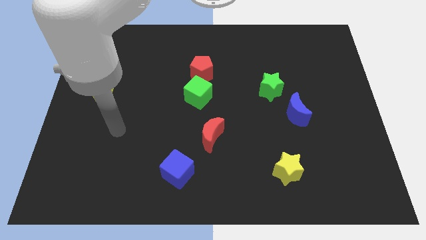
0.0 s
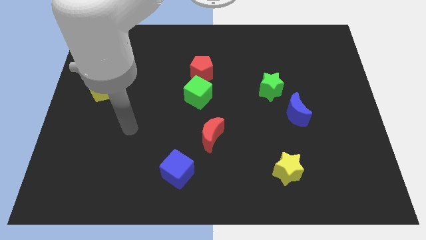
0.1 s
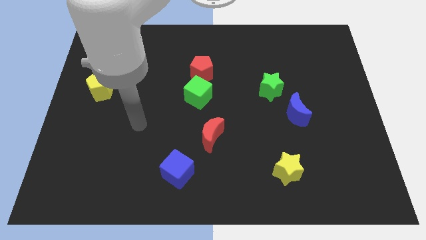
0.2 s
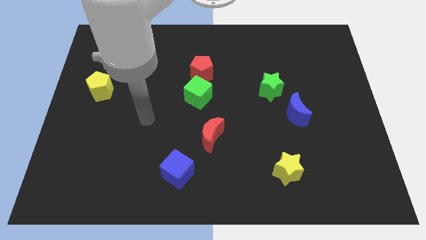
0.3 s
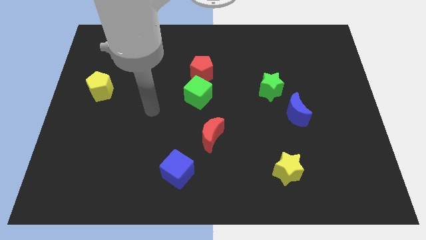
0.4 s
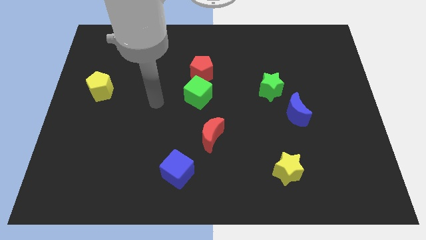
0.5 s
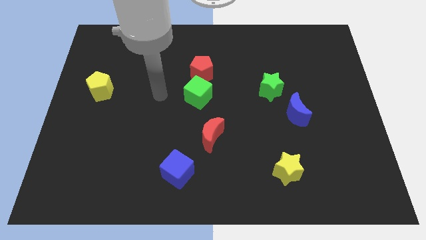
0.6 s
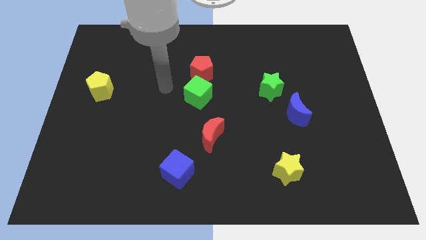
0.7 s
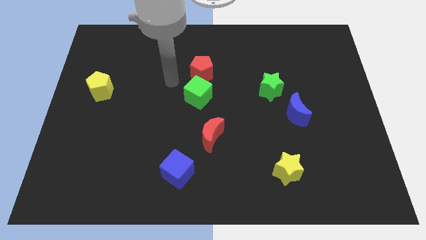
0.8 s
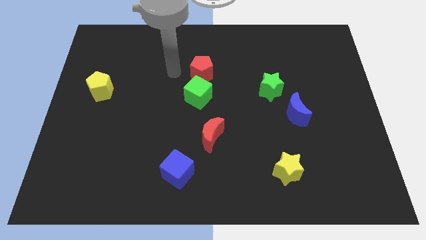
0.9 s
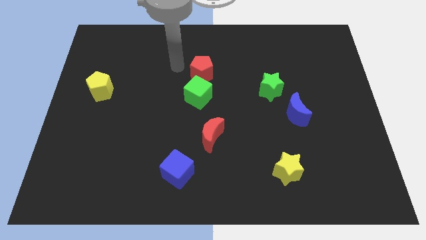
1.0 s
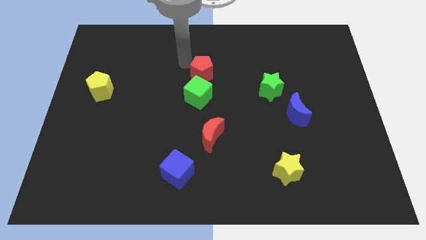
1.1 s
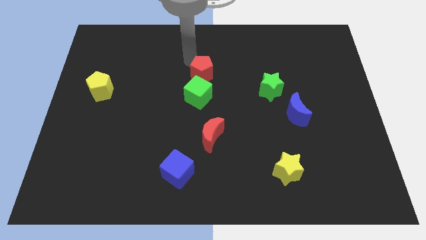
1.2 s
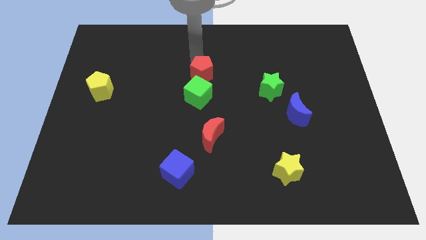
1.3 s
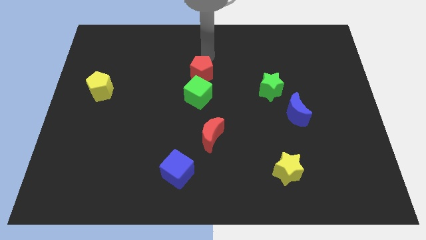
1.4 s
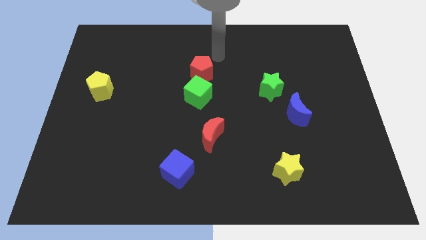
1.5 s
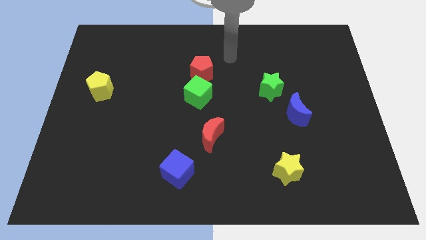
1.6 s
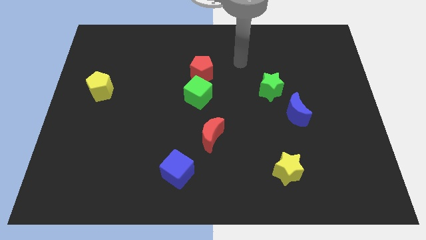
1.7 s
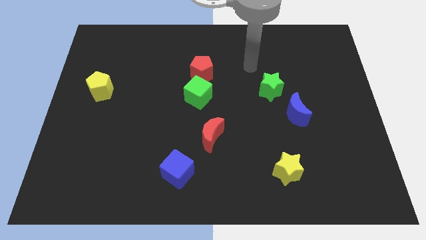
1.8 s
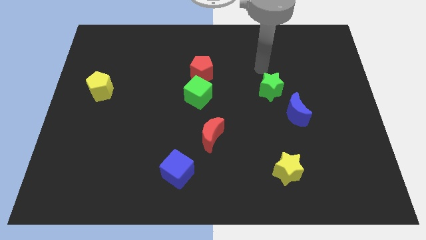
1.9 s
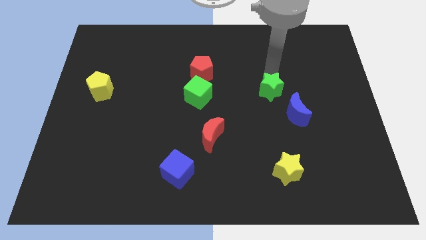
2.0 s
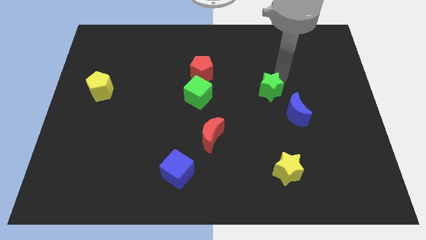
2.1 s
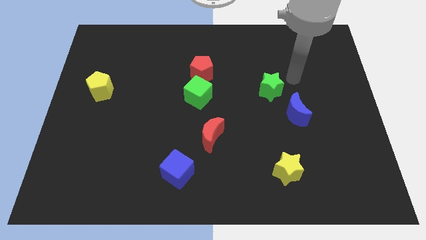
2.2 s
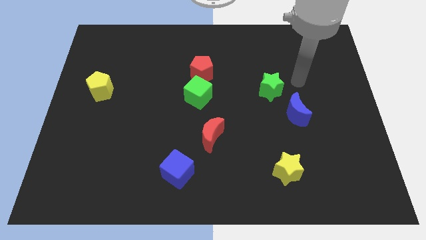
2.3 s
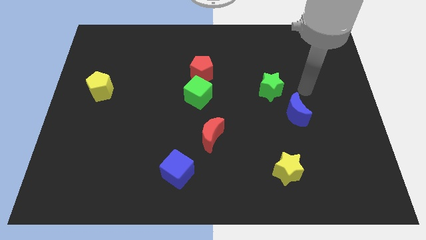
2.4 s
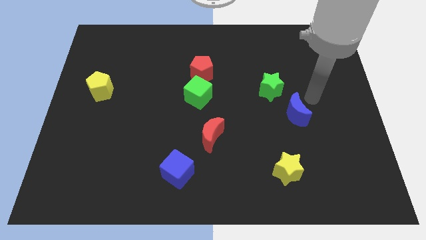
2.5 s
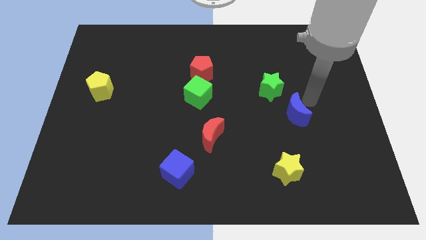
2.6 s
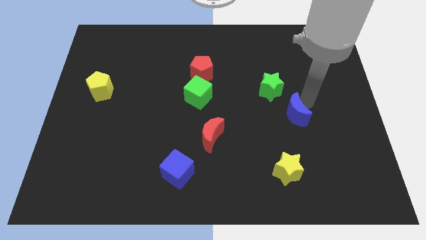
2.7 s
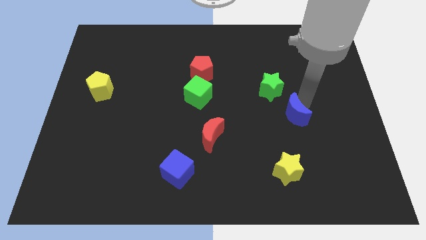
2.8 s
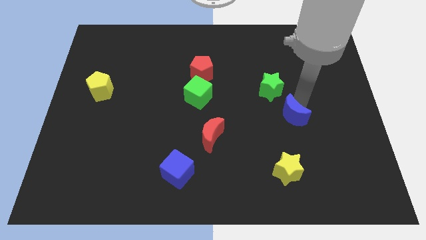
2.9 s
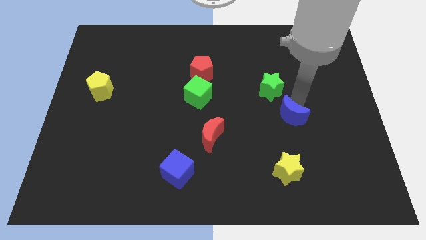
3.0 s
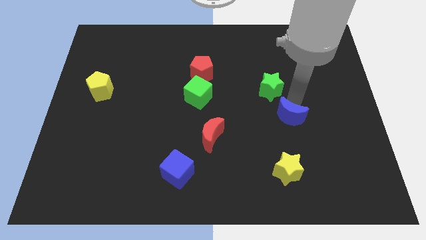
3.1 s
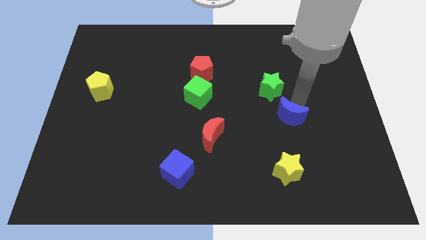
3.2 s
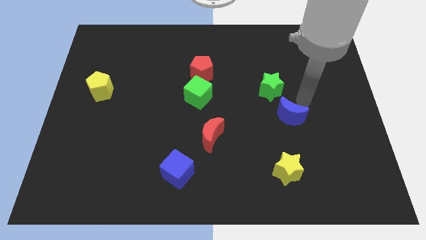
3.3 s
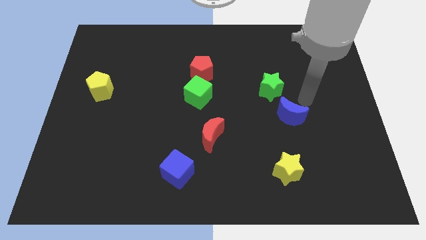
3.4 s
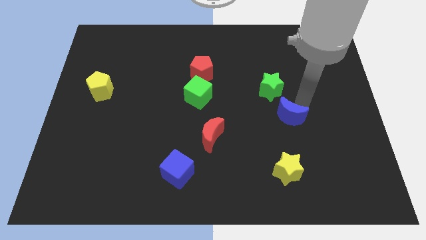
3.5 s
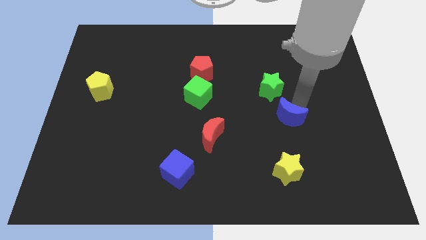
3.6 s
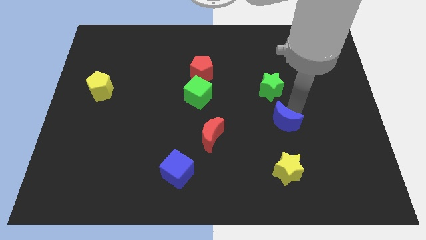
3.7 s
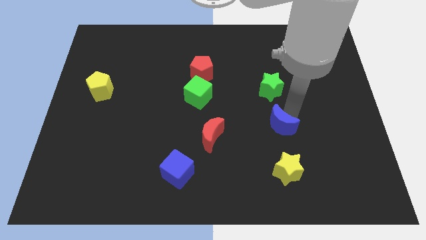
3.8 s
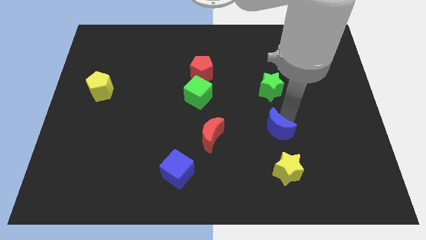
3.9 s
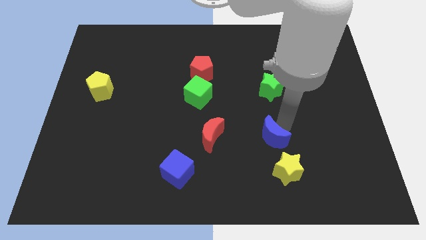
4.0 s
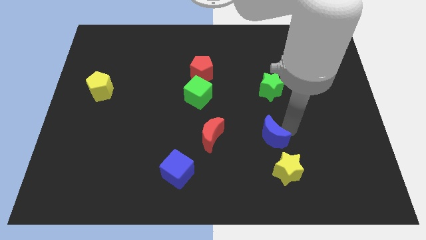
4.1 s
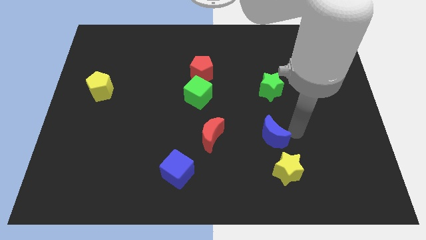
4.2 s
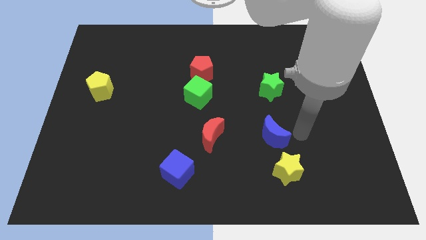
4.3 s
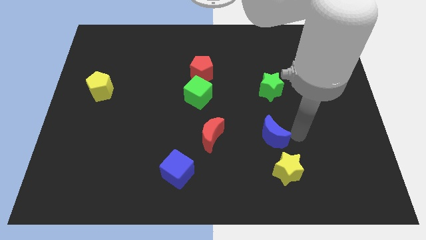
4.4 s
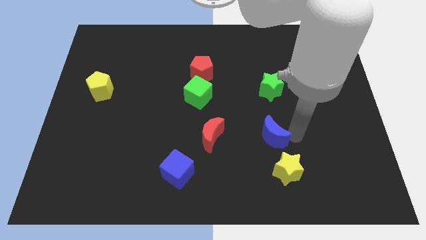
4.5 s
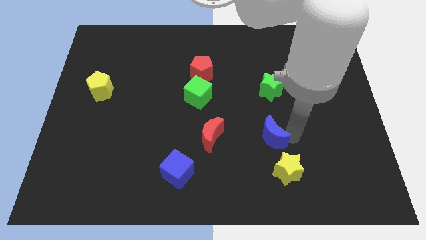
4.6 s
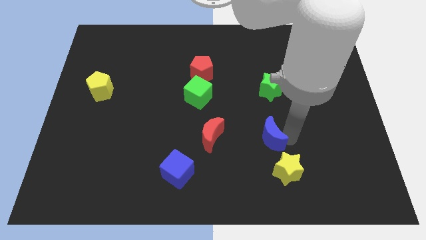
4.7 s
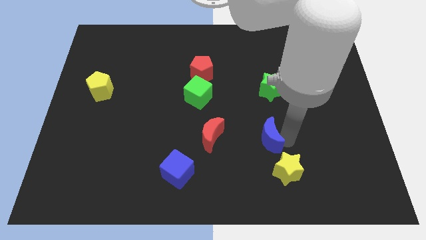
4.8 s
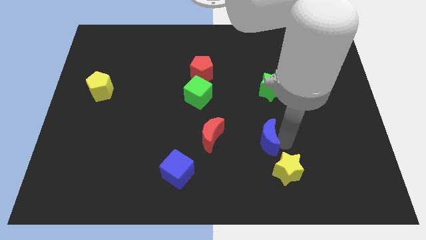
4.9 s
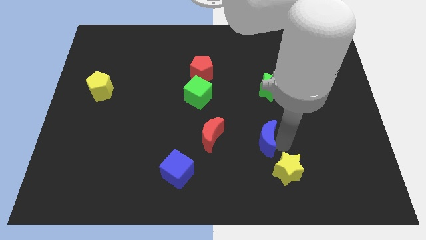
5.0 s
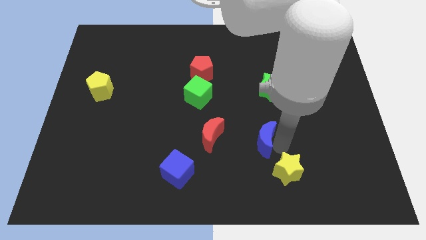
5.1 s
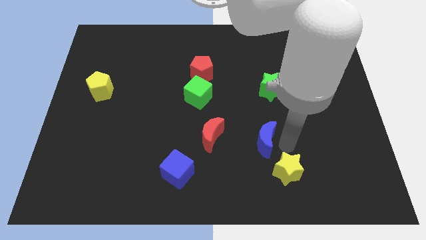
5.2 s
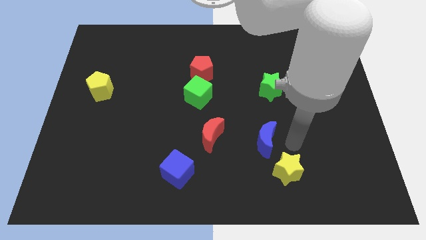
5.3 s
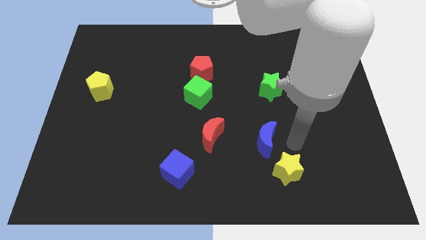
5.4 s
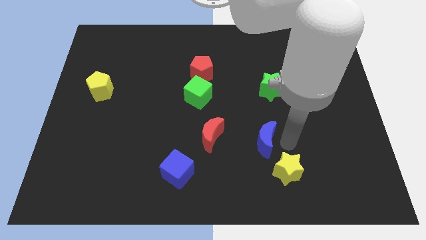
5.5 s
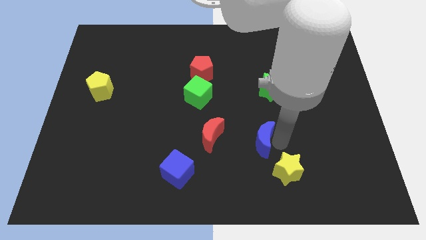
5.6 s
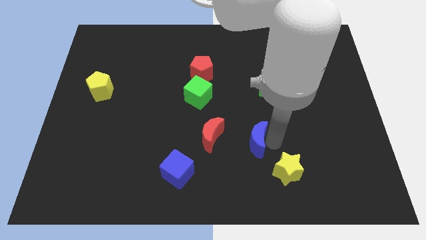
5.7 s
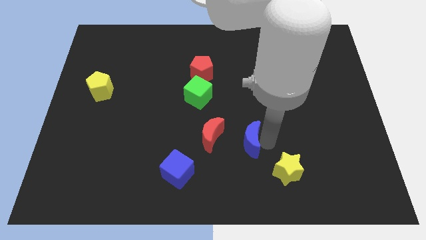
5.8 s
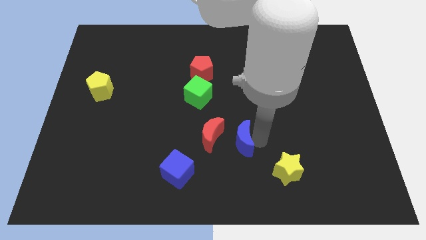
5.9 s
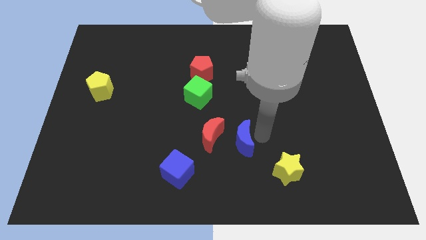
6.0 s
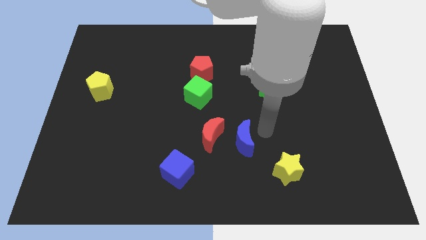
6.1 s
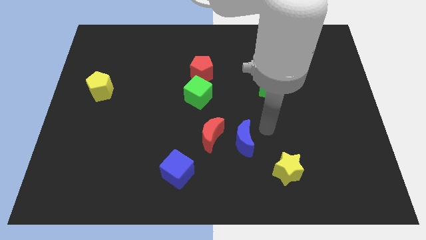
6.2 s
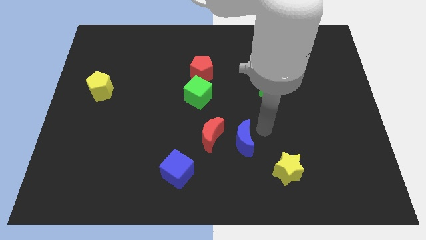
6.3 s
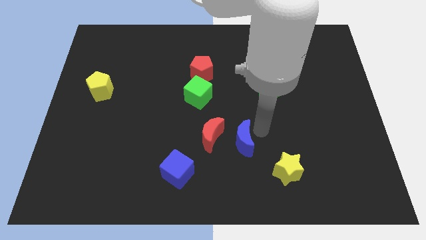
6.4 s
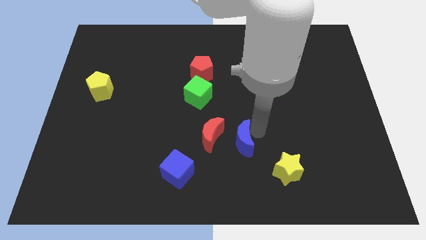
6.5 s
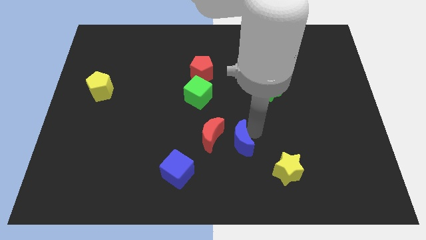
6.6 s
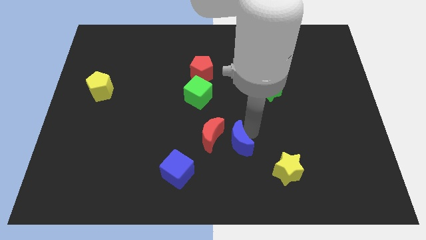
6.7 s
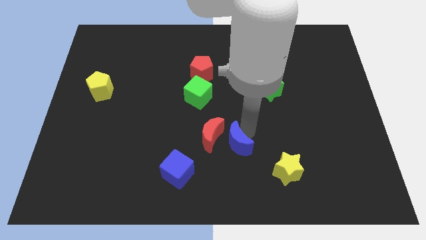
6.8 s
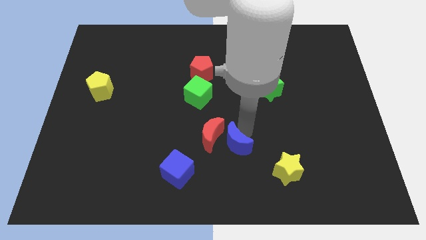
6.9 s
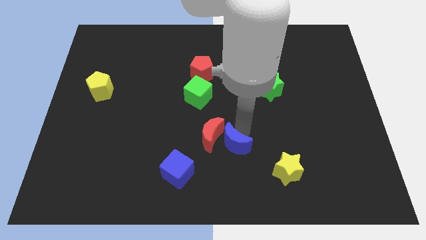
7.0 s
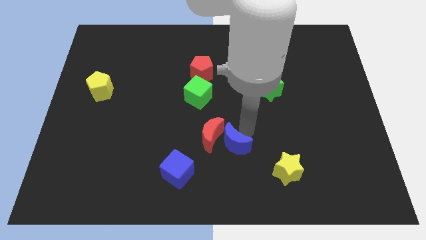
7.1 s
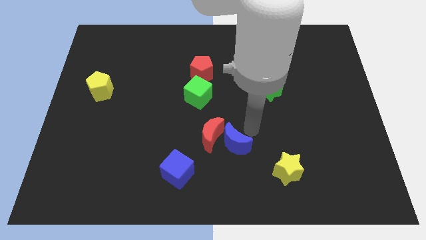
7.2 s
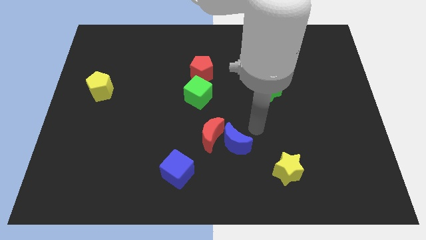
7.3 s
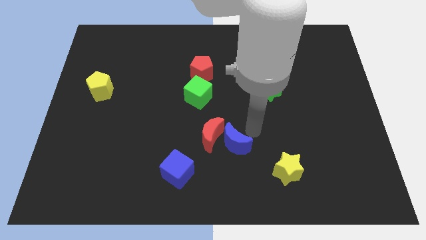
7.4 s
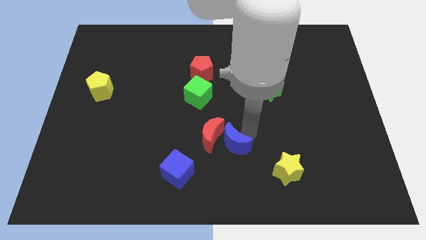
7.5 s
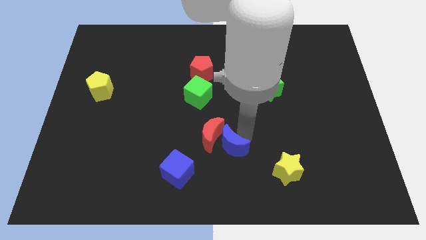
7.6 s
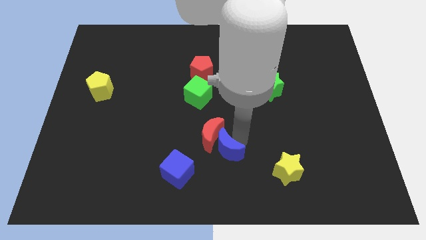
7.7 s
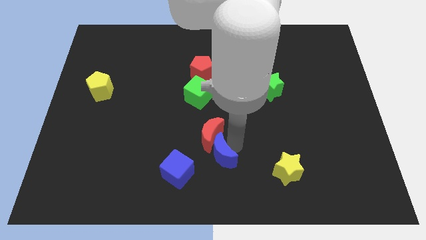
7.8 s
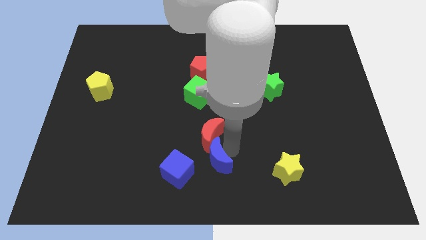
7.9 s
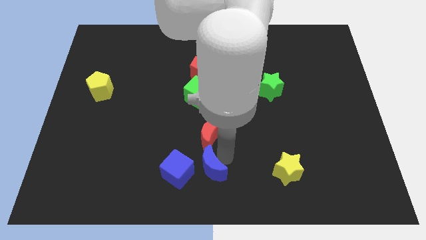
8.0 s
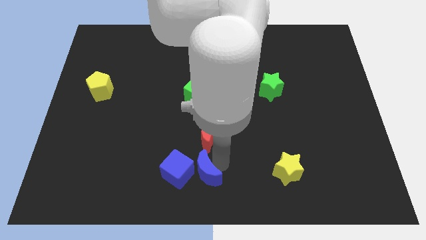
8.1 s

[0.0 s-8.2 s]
move the blue moon to the blue cube
